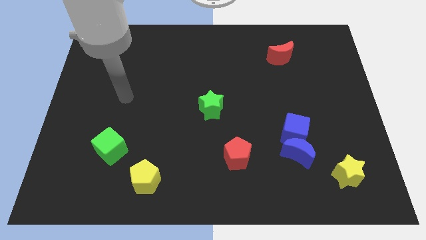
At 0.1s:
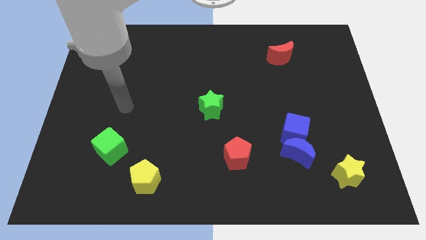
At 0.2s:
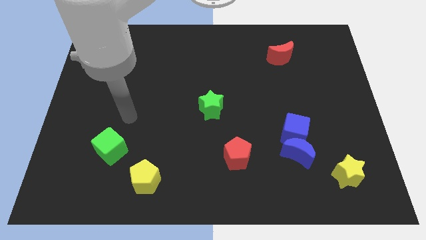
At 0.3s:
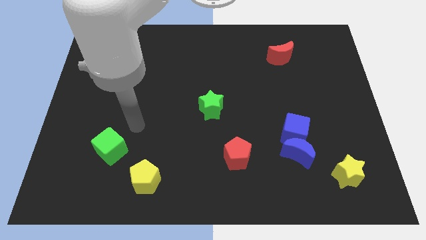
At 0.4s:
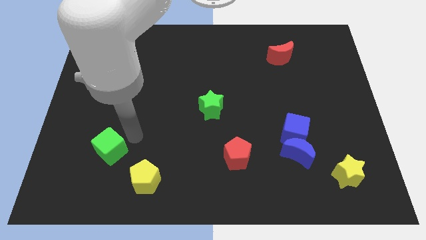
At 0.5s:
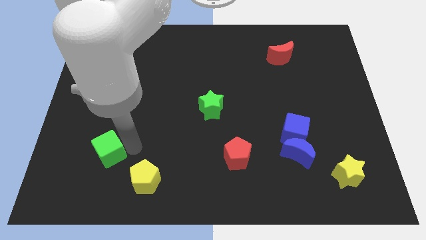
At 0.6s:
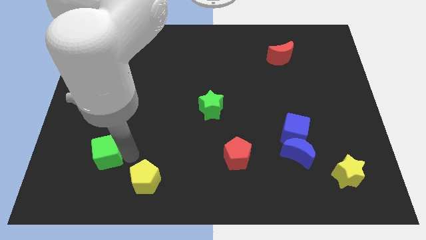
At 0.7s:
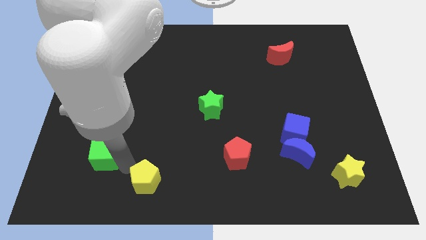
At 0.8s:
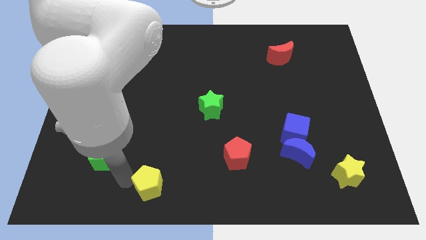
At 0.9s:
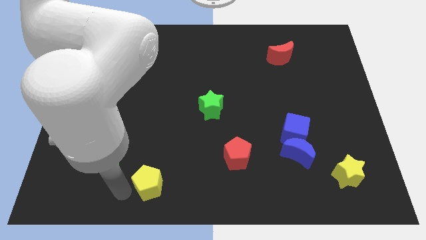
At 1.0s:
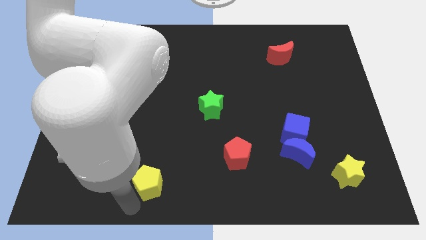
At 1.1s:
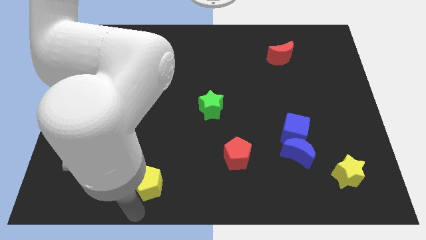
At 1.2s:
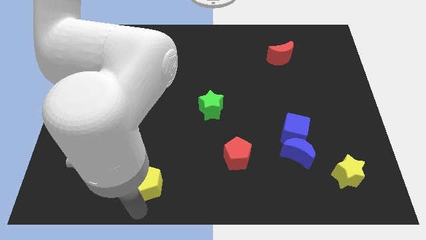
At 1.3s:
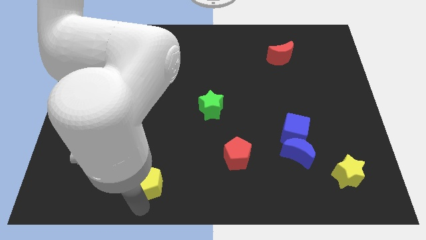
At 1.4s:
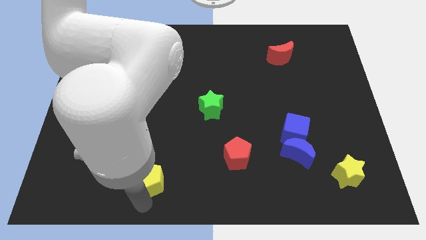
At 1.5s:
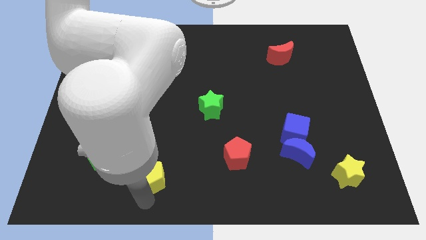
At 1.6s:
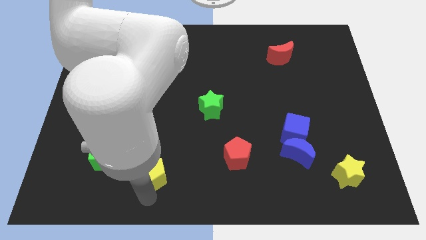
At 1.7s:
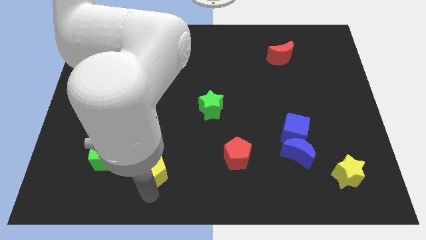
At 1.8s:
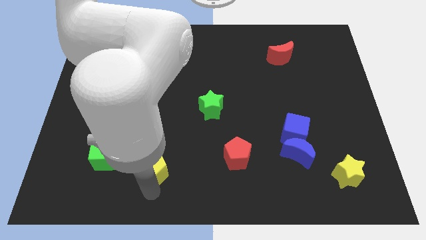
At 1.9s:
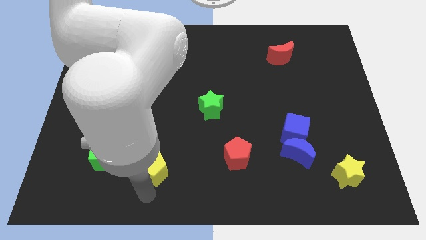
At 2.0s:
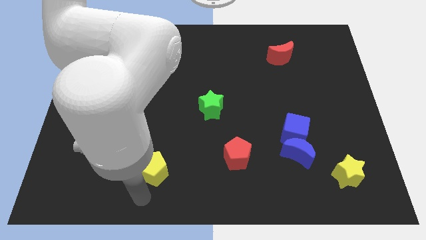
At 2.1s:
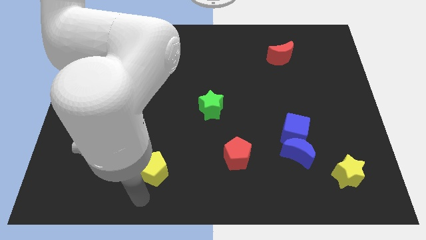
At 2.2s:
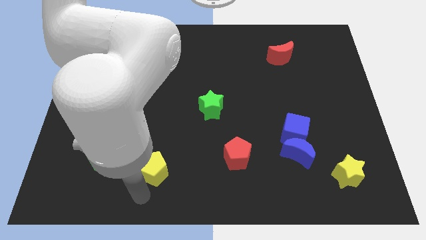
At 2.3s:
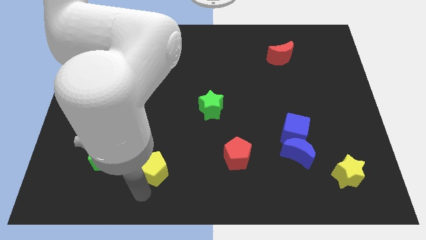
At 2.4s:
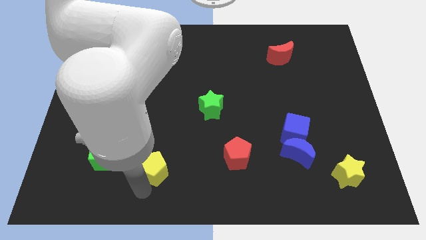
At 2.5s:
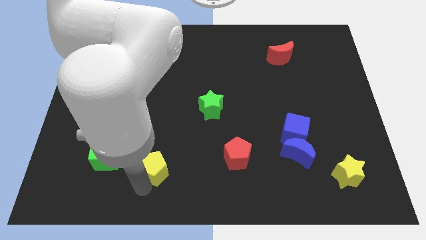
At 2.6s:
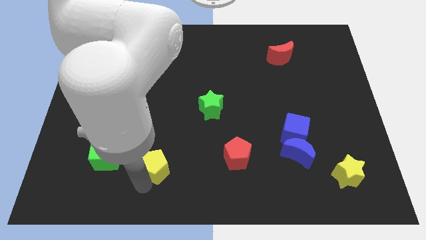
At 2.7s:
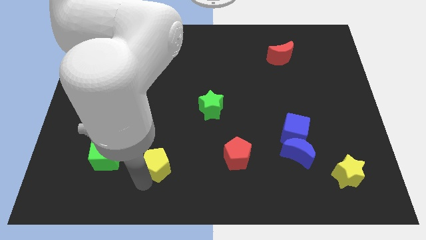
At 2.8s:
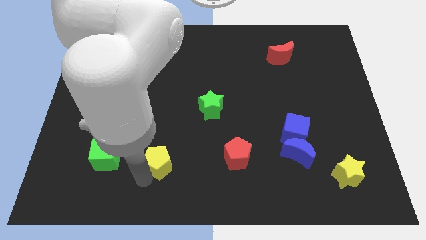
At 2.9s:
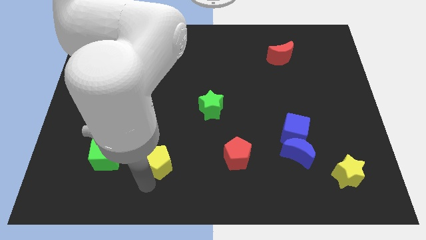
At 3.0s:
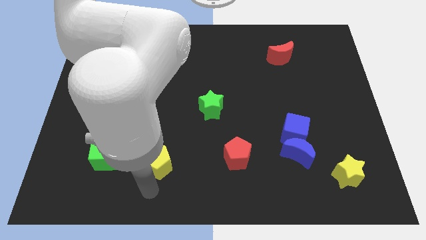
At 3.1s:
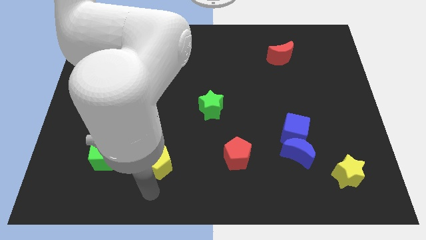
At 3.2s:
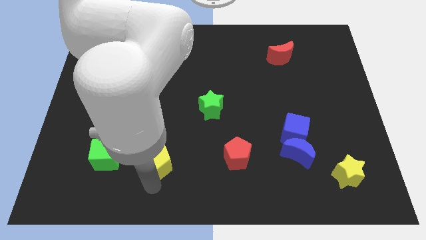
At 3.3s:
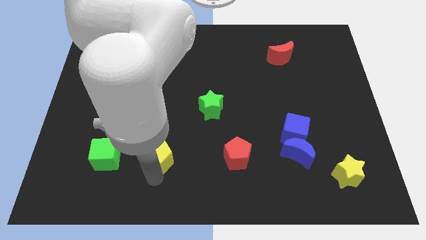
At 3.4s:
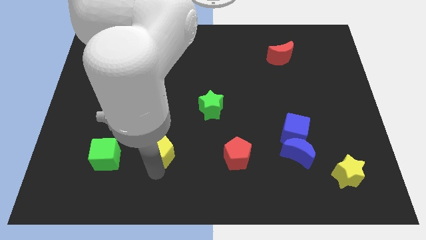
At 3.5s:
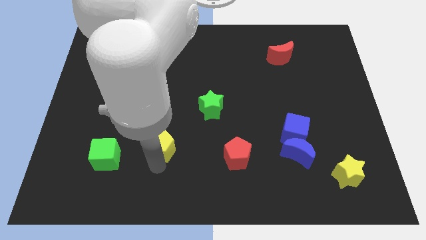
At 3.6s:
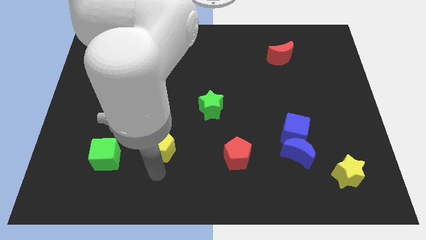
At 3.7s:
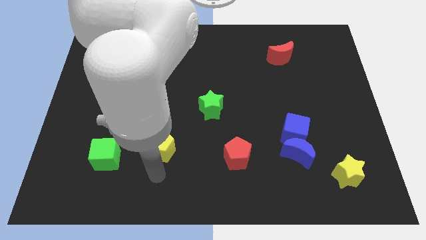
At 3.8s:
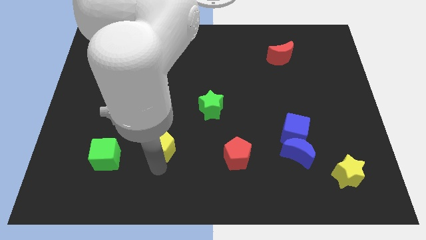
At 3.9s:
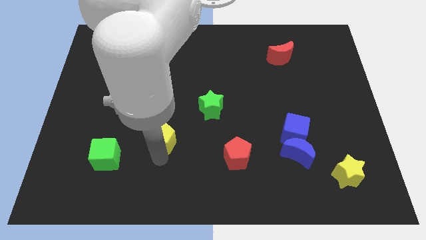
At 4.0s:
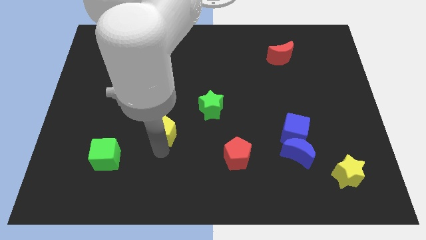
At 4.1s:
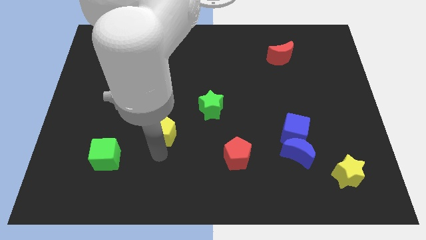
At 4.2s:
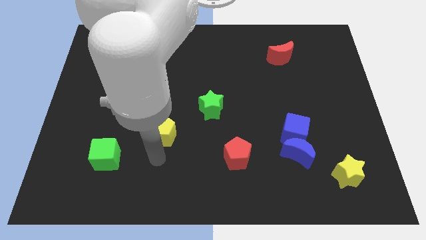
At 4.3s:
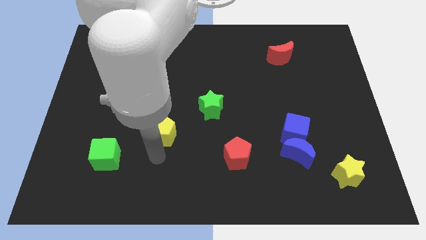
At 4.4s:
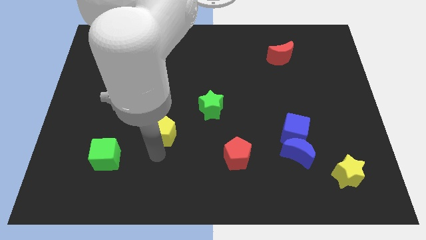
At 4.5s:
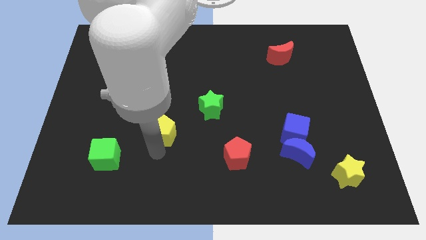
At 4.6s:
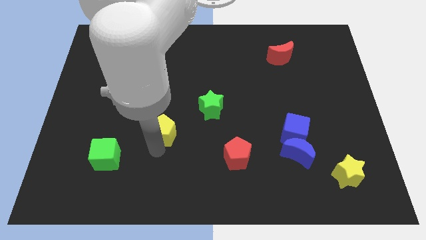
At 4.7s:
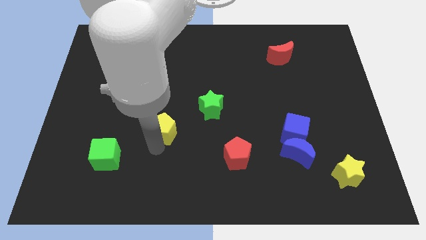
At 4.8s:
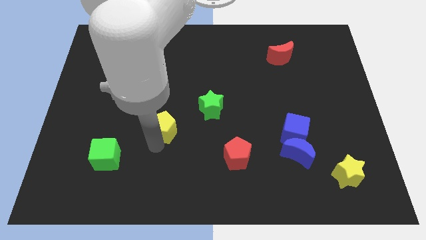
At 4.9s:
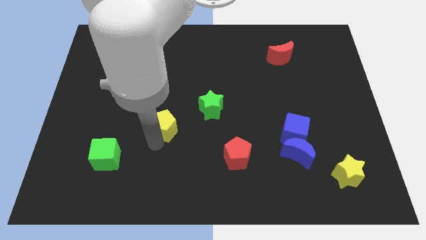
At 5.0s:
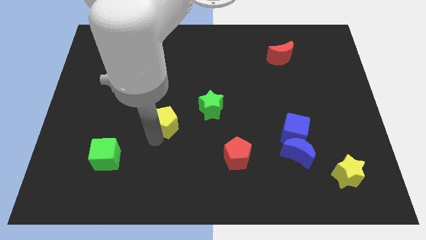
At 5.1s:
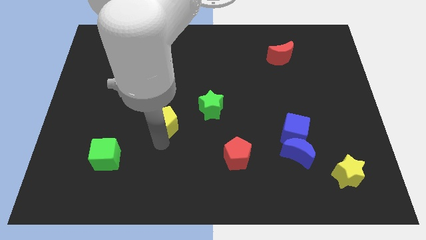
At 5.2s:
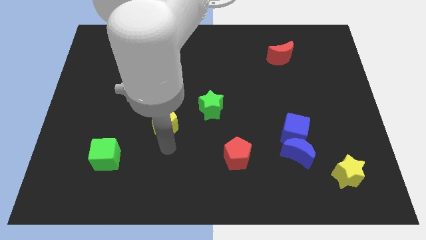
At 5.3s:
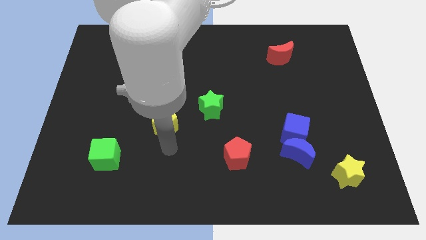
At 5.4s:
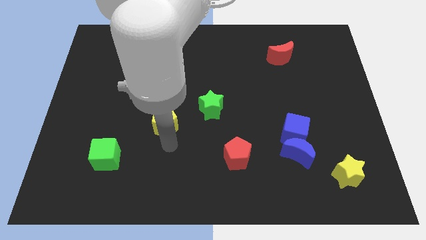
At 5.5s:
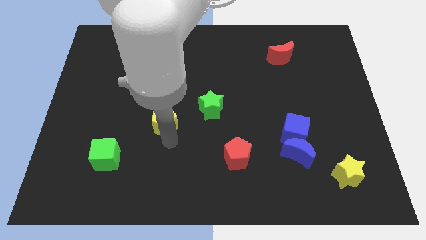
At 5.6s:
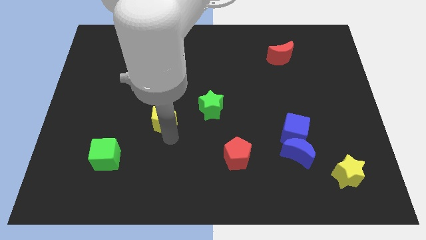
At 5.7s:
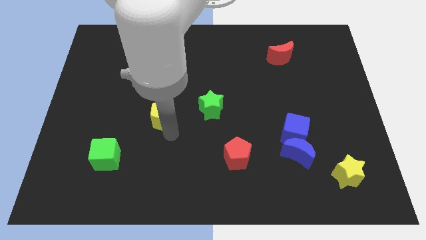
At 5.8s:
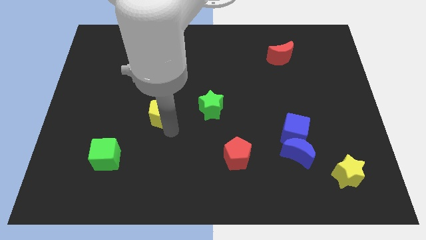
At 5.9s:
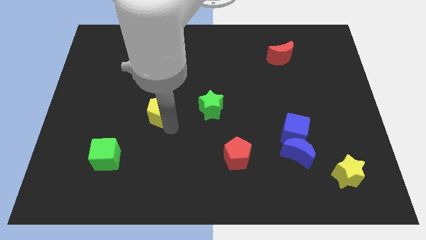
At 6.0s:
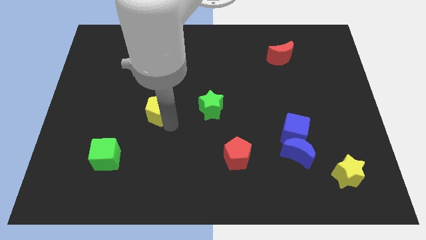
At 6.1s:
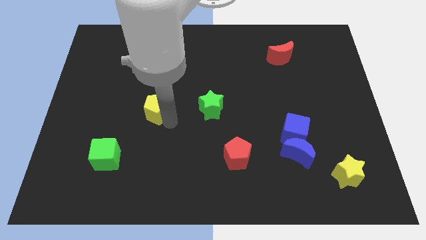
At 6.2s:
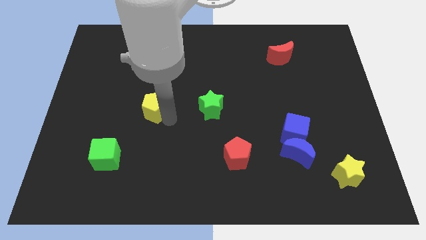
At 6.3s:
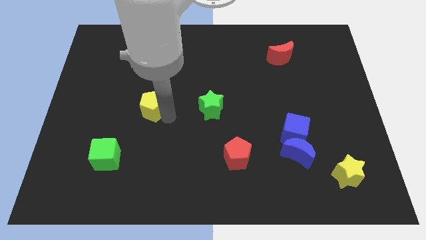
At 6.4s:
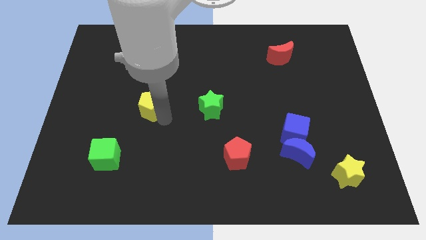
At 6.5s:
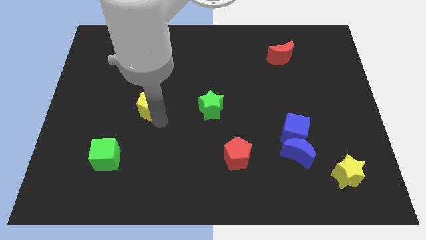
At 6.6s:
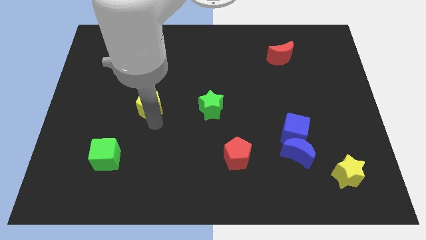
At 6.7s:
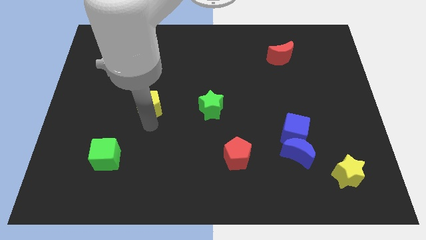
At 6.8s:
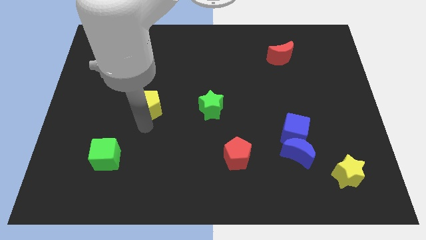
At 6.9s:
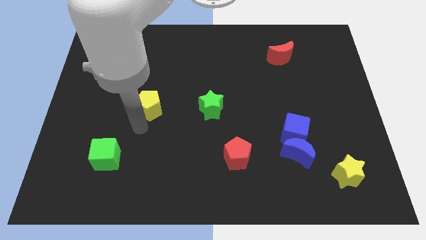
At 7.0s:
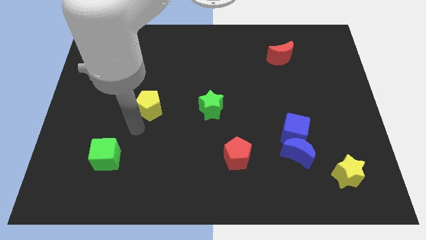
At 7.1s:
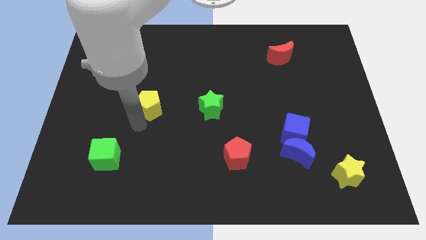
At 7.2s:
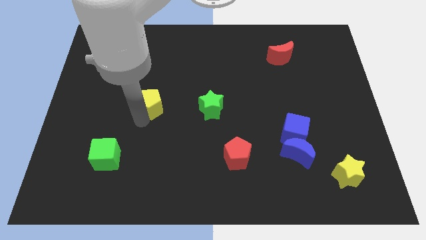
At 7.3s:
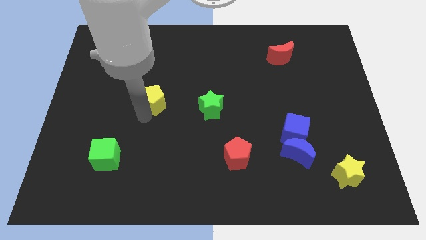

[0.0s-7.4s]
slide the yellow pentagon up

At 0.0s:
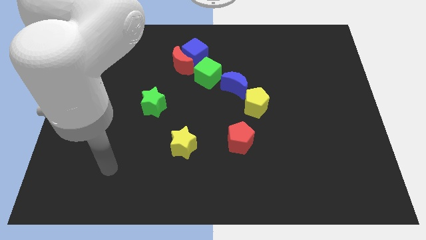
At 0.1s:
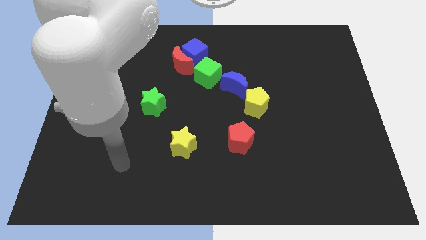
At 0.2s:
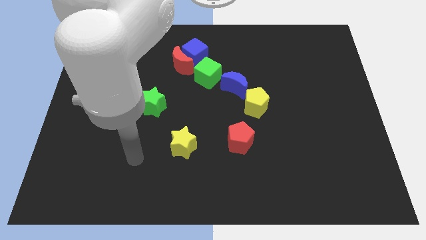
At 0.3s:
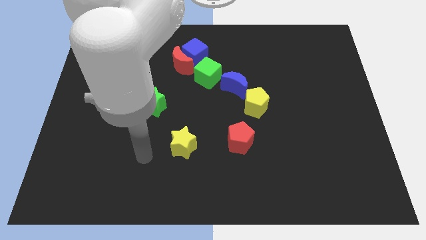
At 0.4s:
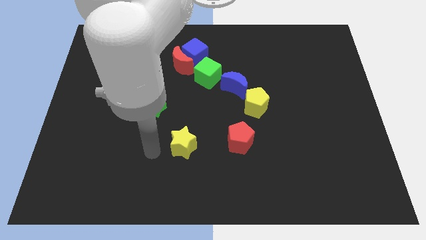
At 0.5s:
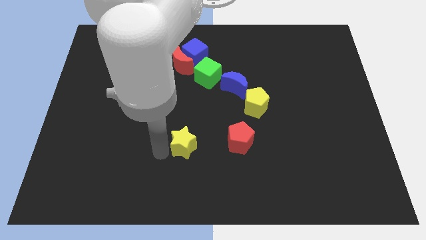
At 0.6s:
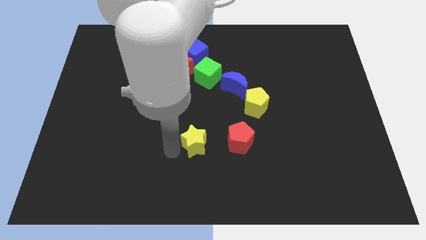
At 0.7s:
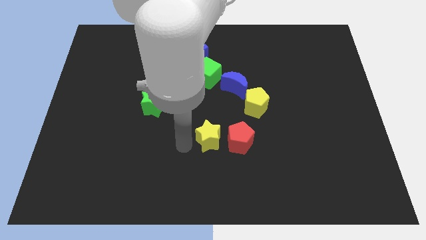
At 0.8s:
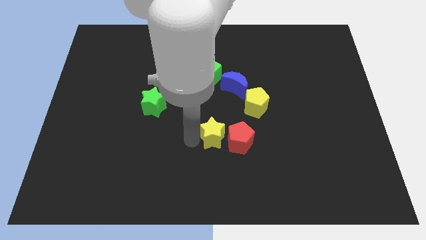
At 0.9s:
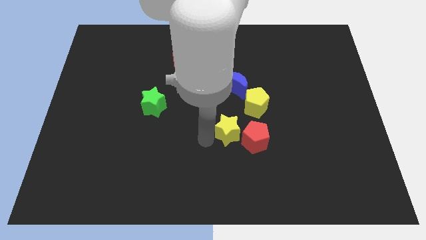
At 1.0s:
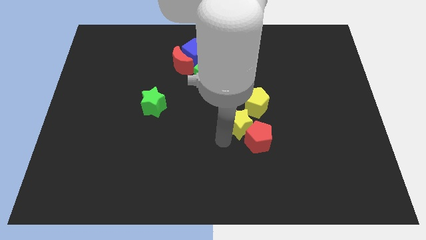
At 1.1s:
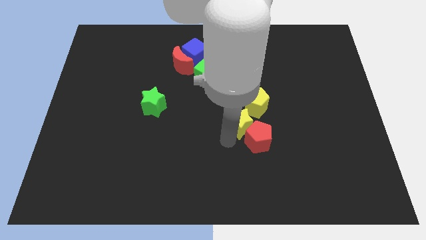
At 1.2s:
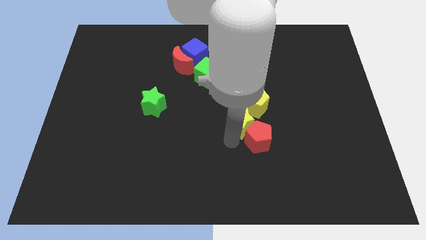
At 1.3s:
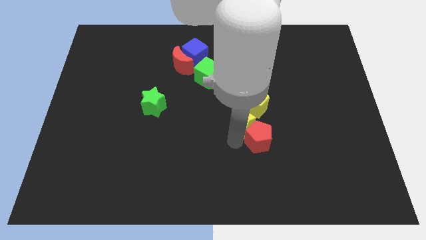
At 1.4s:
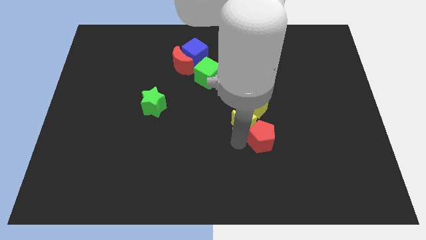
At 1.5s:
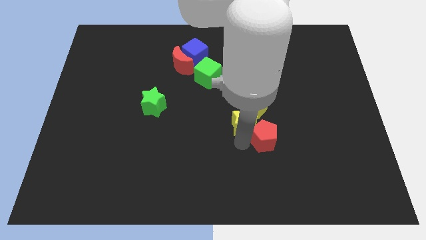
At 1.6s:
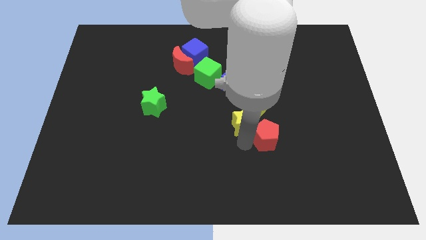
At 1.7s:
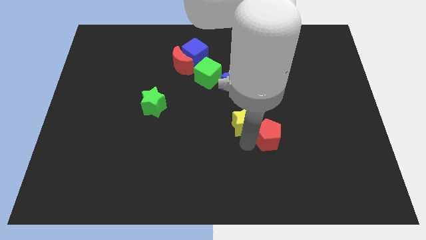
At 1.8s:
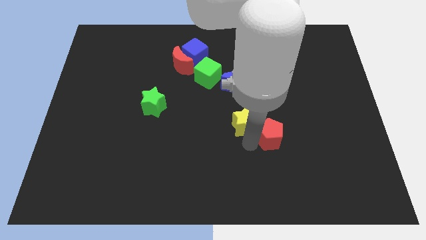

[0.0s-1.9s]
slightly push the red pentagon to the right
